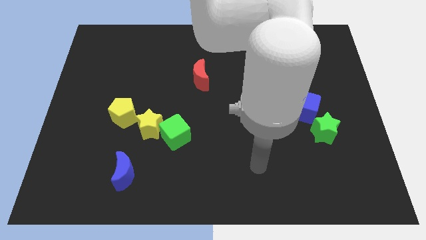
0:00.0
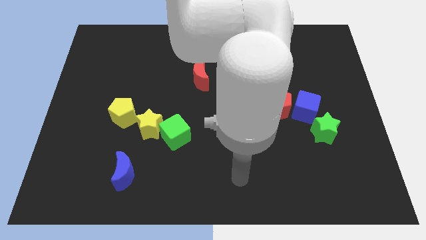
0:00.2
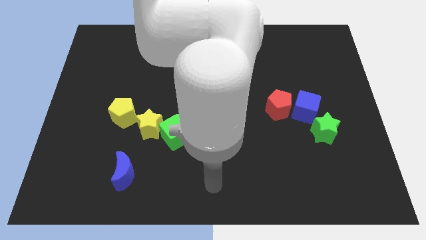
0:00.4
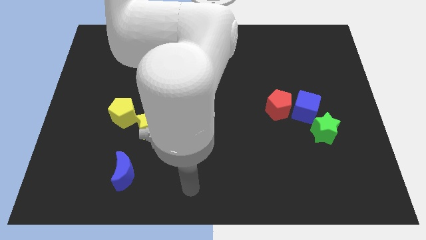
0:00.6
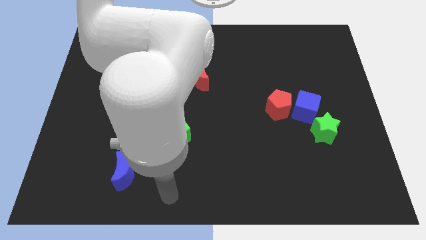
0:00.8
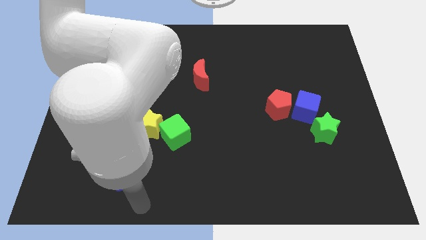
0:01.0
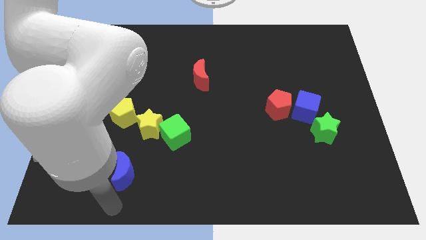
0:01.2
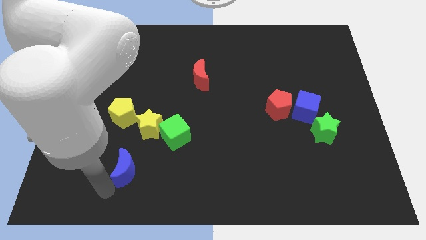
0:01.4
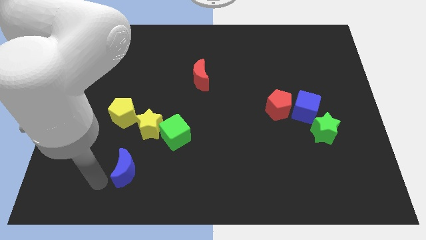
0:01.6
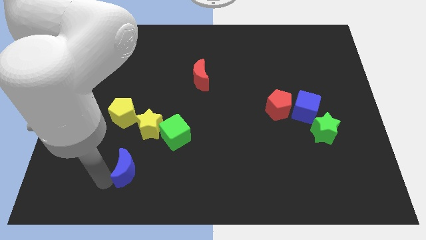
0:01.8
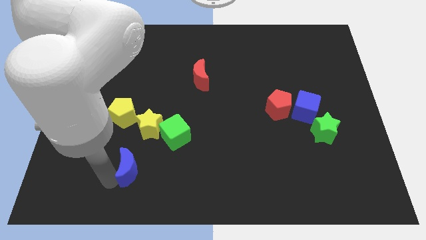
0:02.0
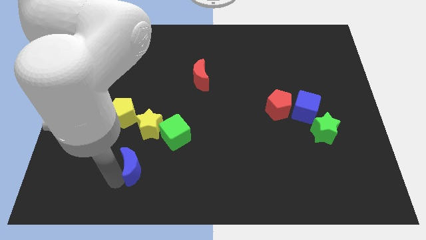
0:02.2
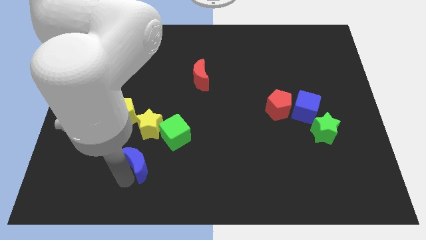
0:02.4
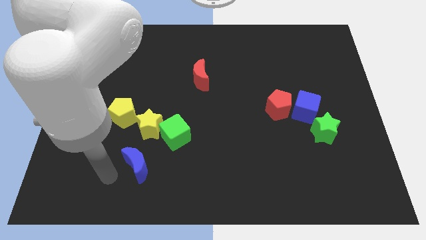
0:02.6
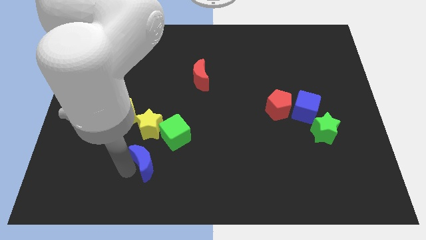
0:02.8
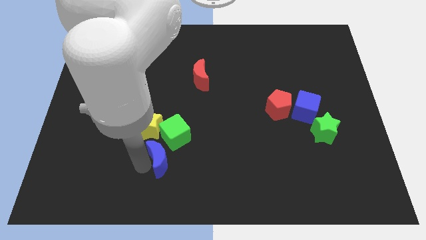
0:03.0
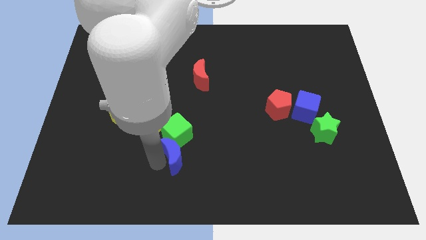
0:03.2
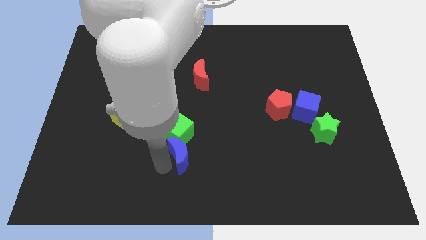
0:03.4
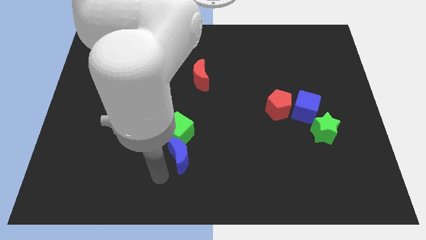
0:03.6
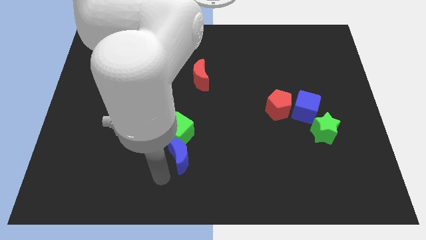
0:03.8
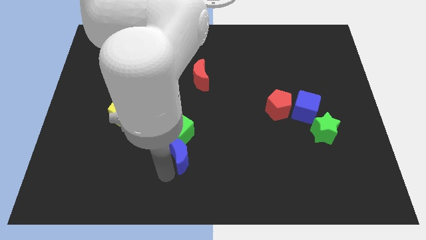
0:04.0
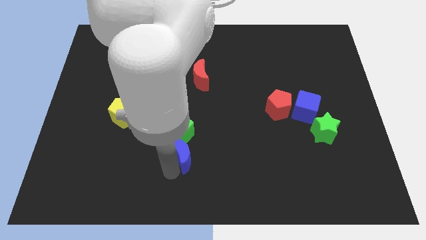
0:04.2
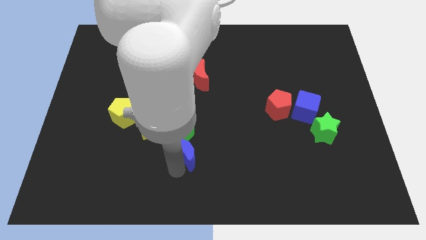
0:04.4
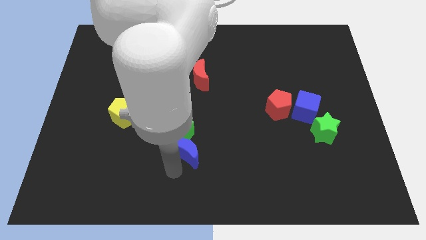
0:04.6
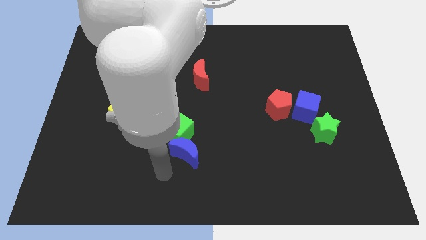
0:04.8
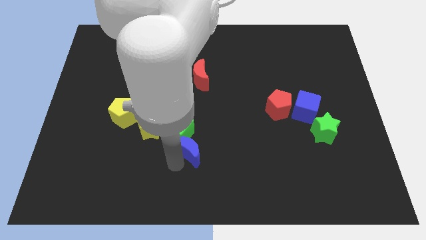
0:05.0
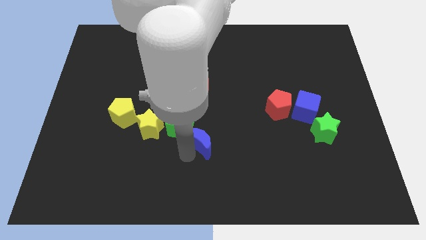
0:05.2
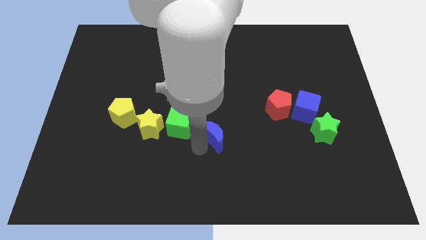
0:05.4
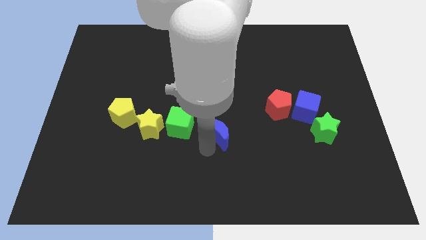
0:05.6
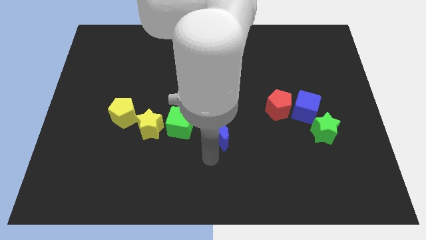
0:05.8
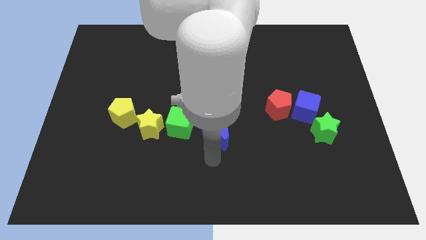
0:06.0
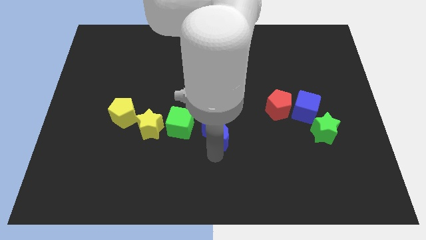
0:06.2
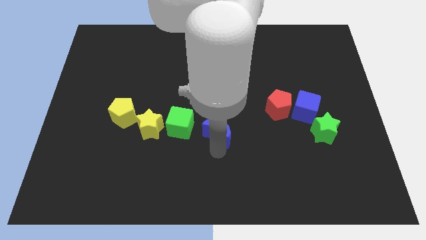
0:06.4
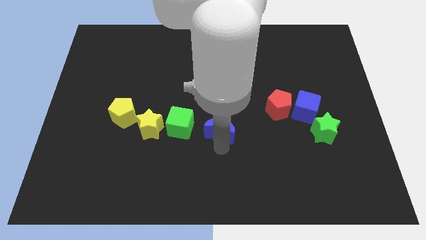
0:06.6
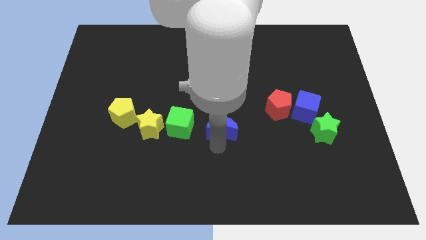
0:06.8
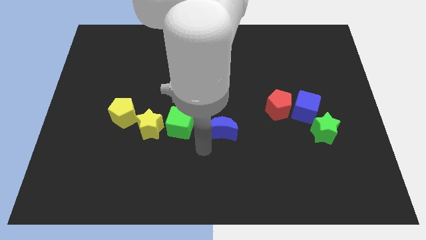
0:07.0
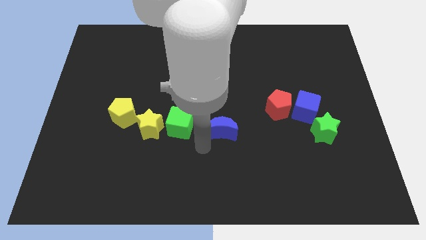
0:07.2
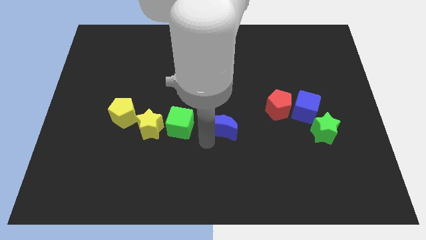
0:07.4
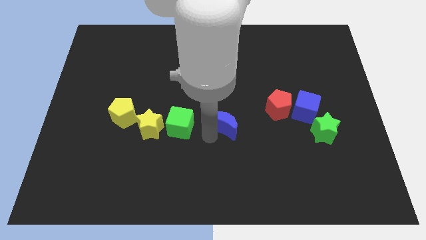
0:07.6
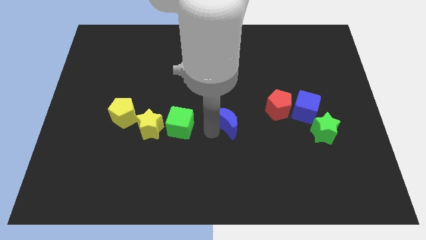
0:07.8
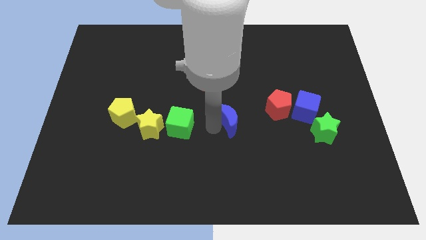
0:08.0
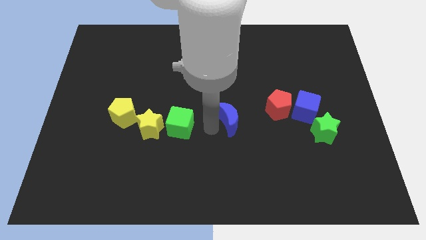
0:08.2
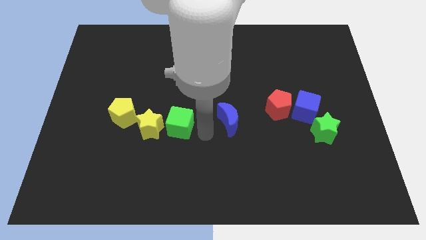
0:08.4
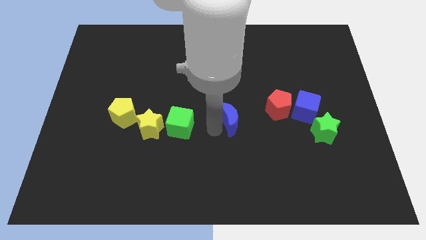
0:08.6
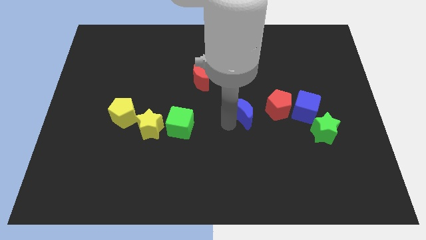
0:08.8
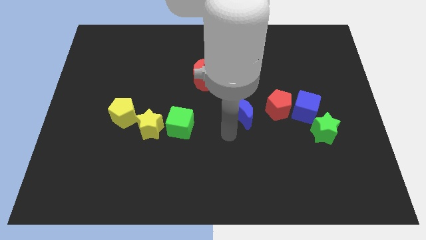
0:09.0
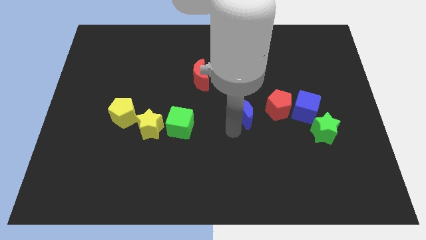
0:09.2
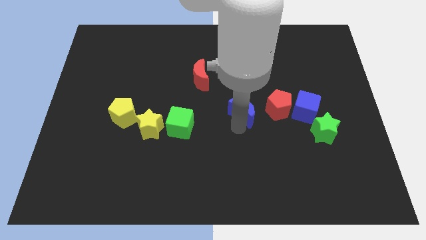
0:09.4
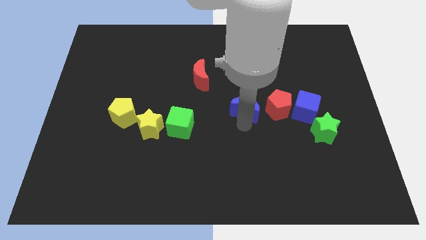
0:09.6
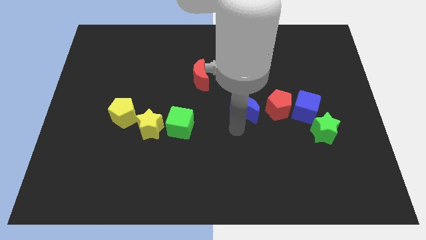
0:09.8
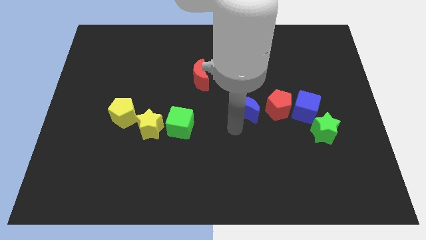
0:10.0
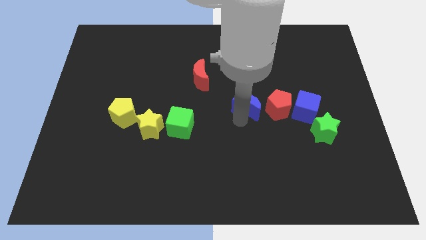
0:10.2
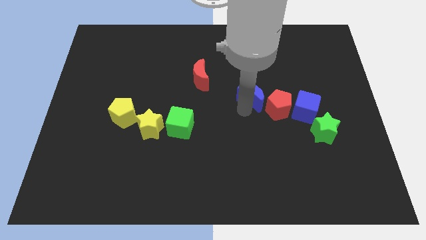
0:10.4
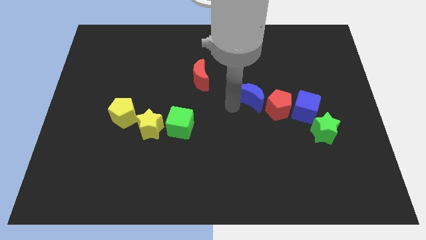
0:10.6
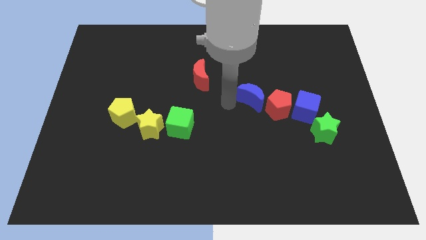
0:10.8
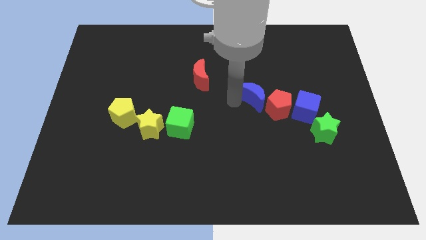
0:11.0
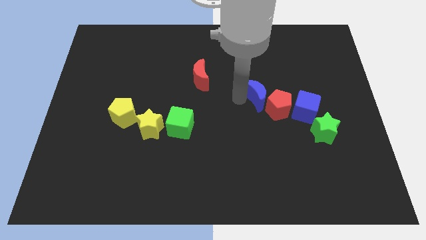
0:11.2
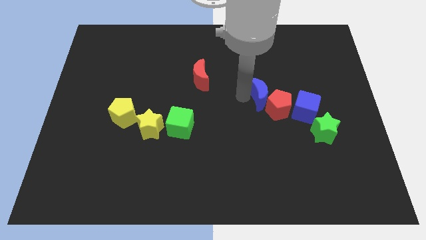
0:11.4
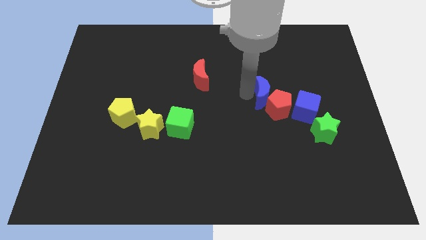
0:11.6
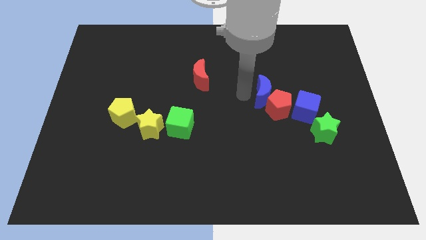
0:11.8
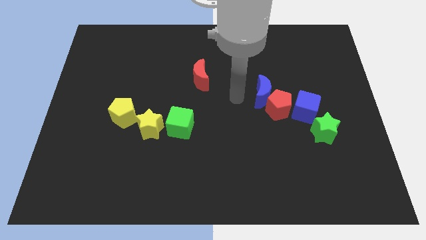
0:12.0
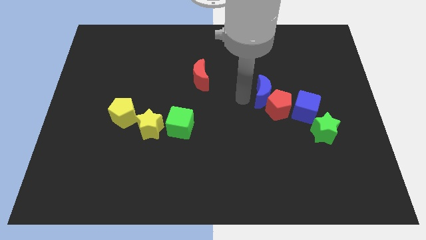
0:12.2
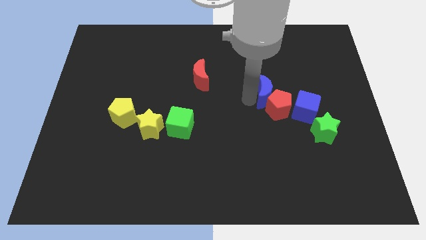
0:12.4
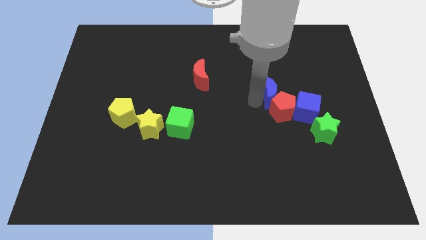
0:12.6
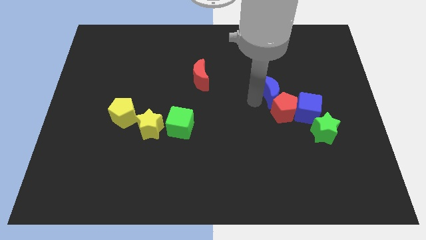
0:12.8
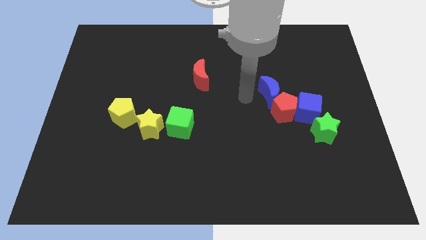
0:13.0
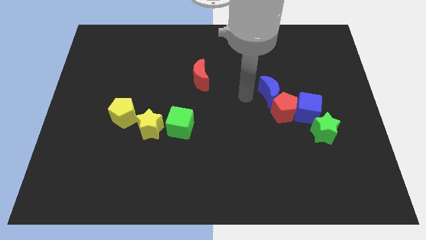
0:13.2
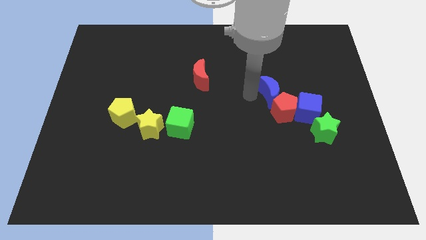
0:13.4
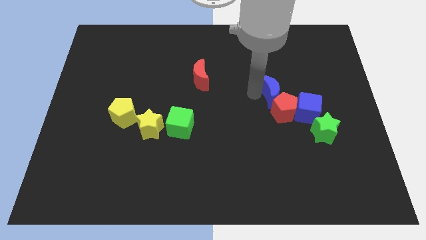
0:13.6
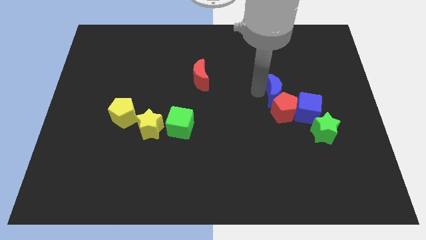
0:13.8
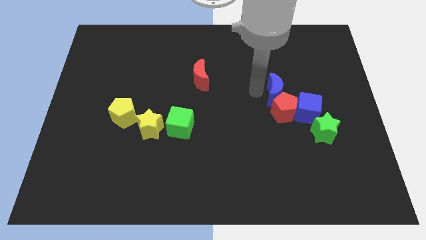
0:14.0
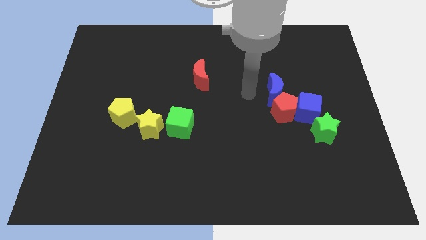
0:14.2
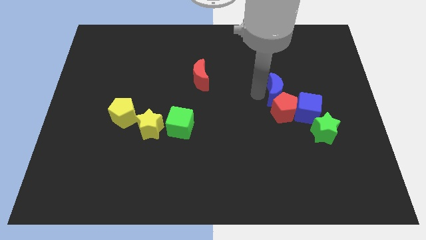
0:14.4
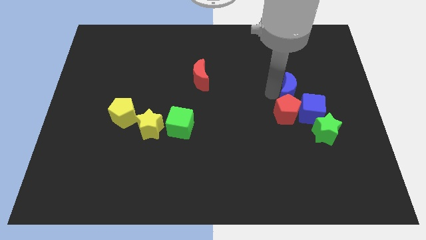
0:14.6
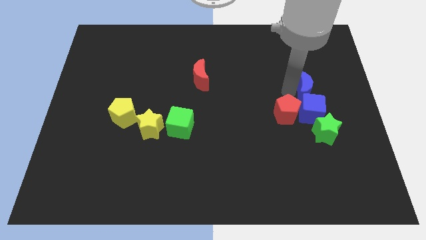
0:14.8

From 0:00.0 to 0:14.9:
put the blue moon diagonally up and to the right of the blue cube
